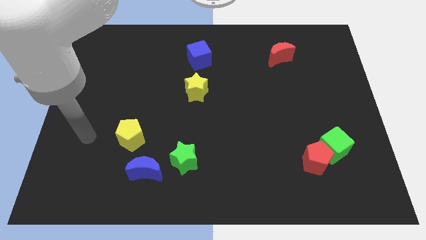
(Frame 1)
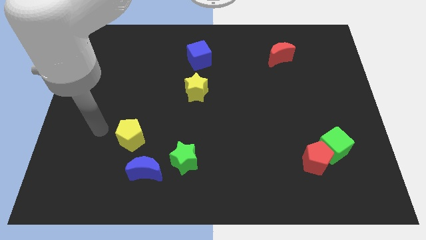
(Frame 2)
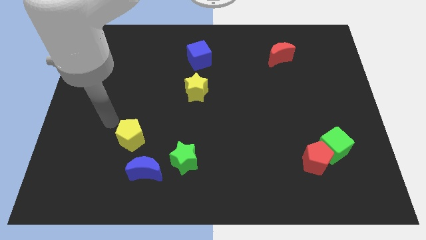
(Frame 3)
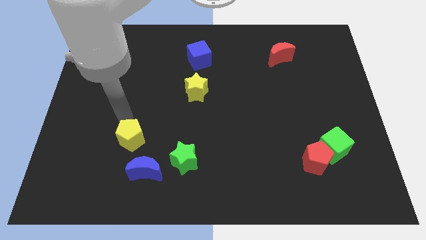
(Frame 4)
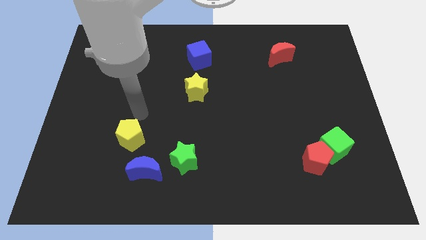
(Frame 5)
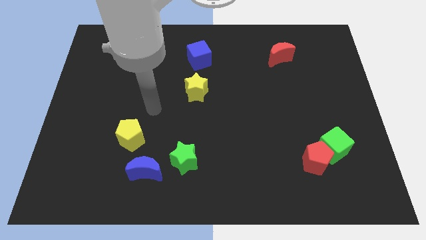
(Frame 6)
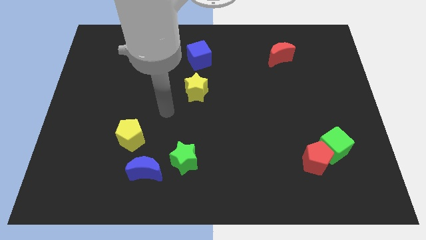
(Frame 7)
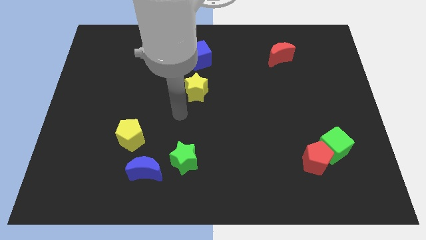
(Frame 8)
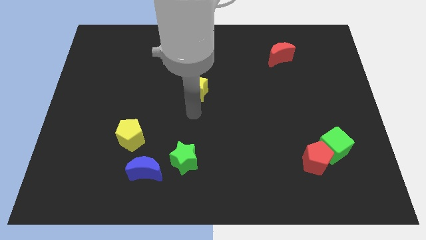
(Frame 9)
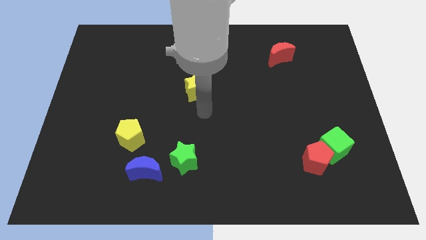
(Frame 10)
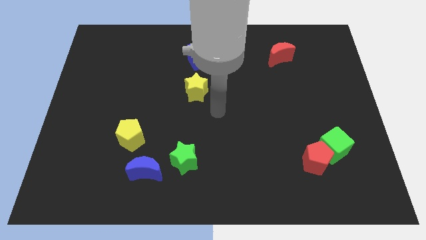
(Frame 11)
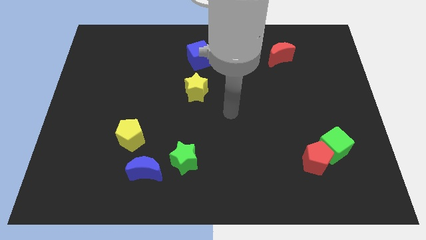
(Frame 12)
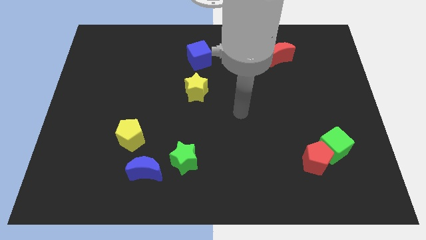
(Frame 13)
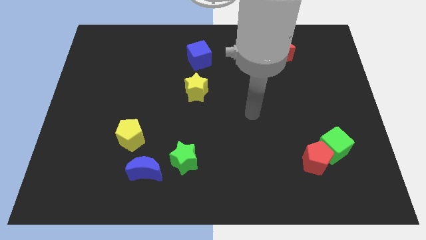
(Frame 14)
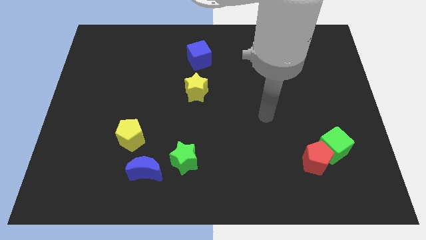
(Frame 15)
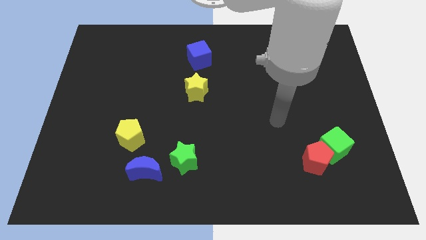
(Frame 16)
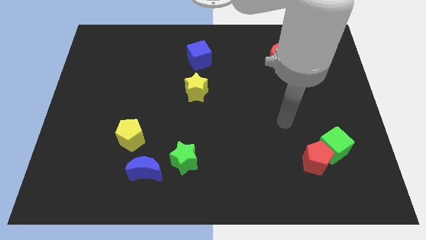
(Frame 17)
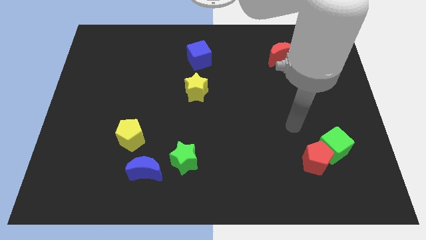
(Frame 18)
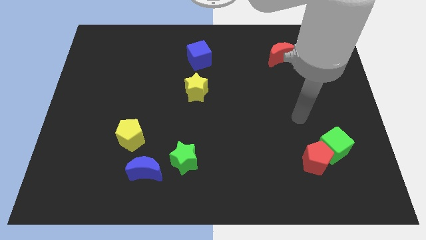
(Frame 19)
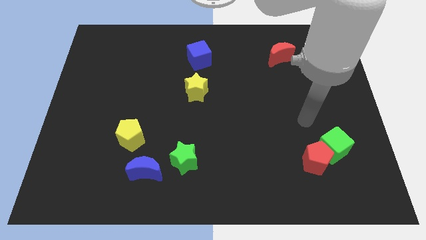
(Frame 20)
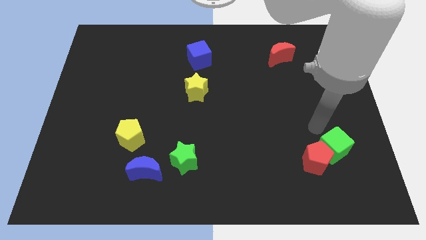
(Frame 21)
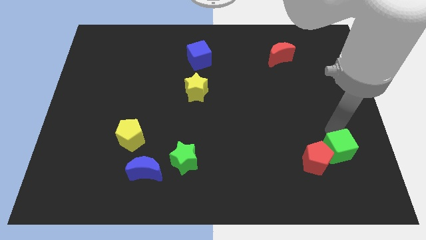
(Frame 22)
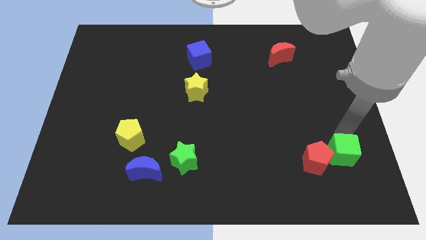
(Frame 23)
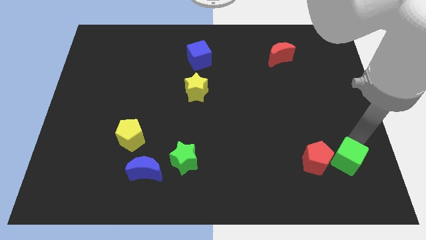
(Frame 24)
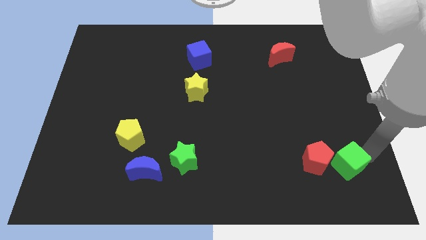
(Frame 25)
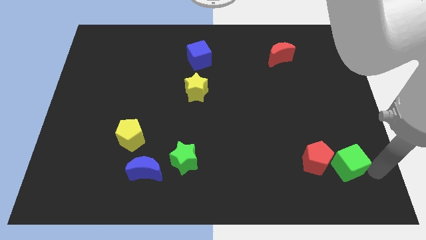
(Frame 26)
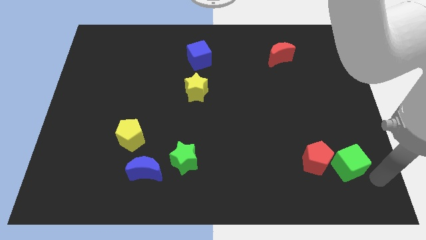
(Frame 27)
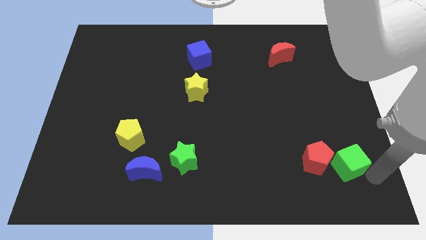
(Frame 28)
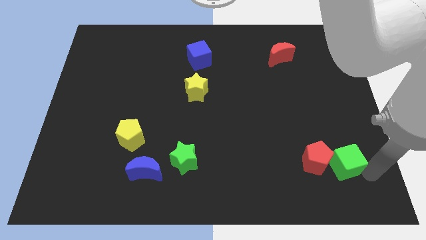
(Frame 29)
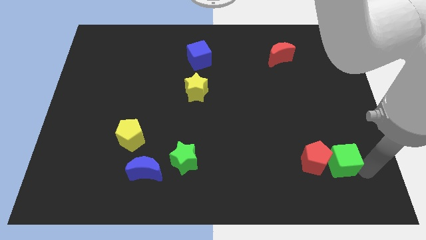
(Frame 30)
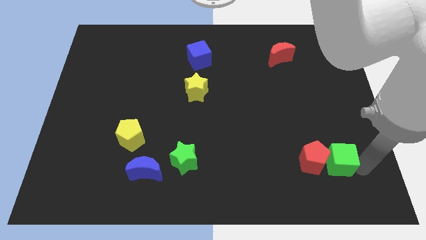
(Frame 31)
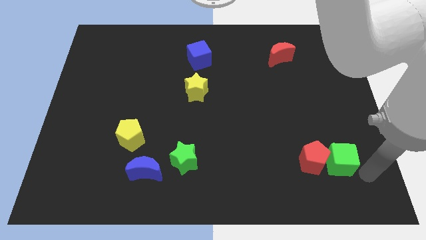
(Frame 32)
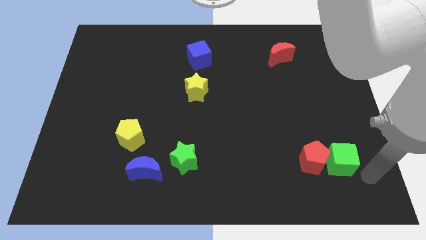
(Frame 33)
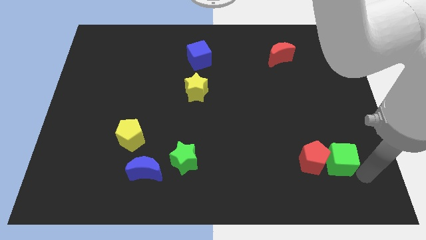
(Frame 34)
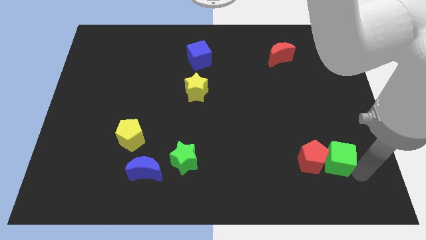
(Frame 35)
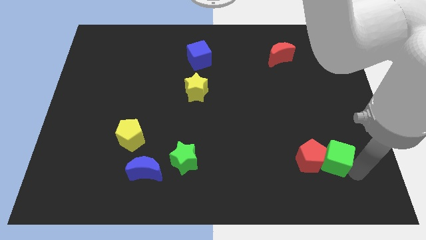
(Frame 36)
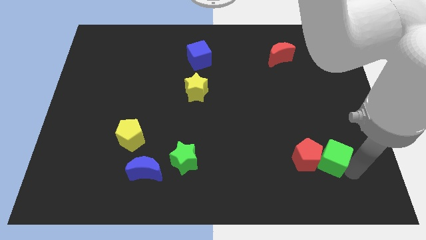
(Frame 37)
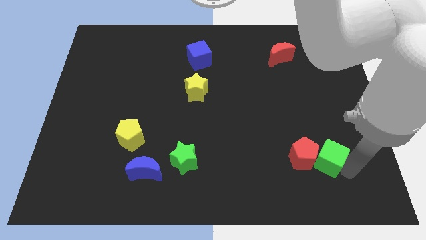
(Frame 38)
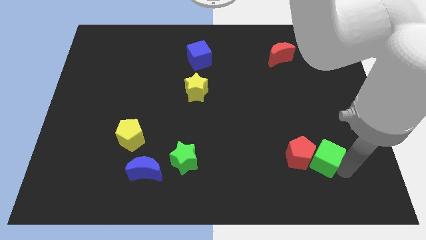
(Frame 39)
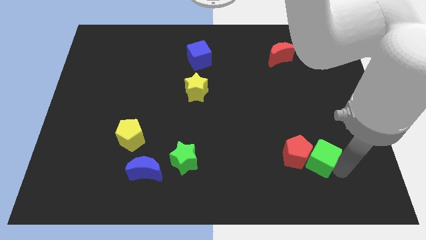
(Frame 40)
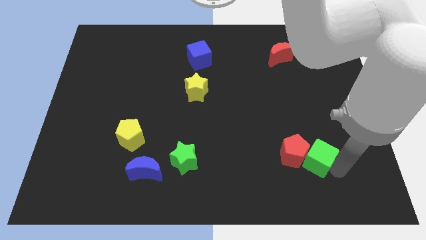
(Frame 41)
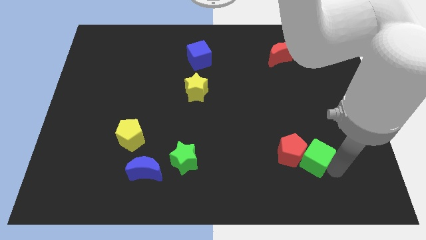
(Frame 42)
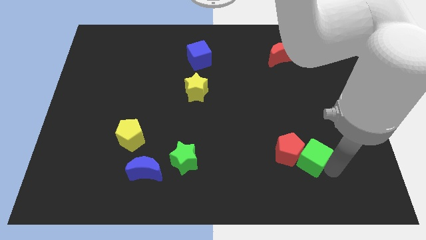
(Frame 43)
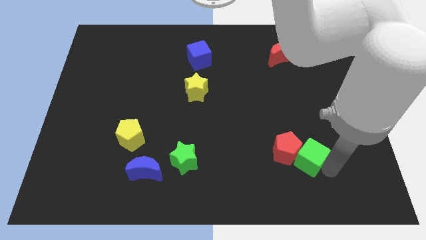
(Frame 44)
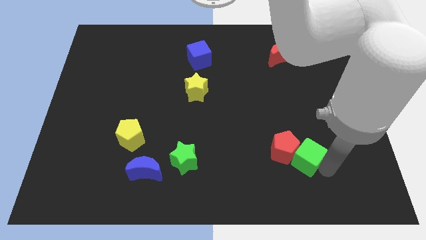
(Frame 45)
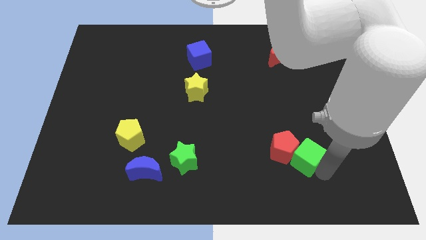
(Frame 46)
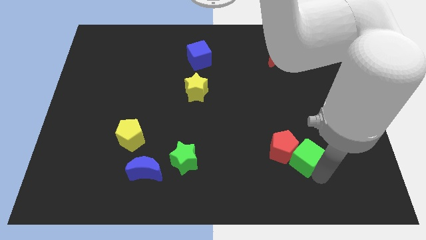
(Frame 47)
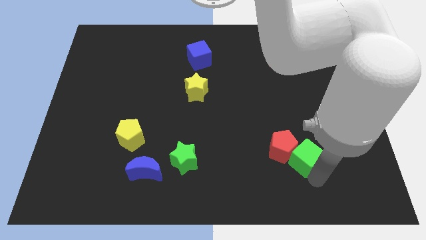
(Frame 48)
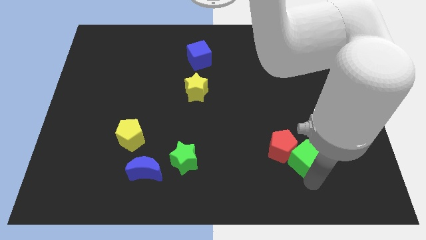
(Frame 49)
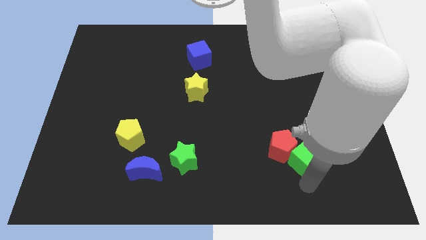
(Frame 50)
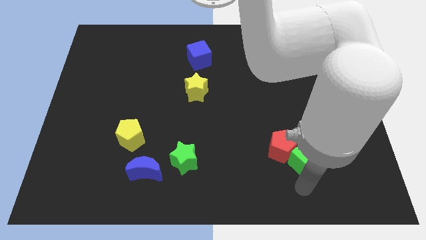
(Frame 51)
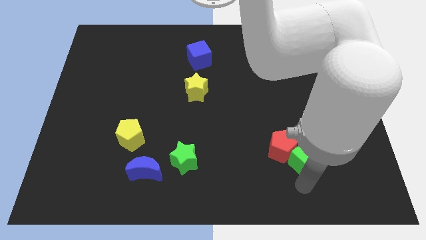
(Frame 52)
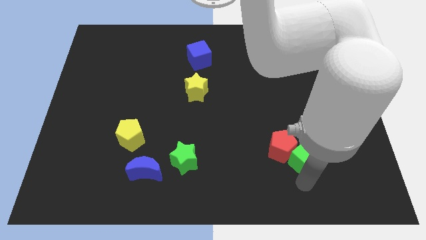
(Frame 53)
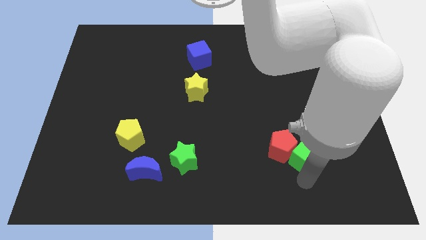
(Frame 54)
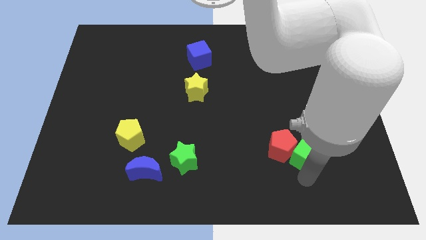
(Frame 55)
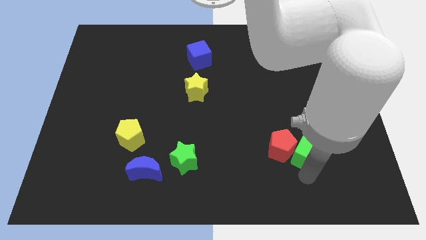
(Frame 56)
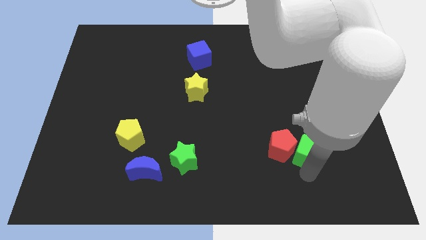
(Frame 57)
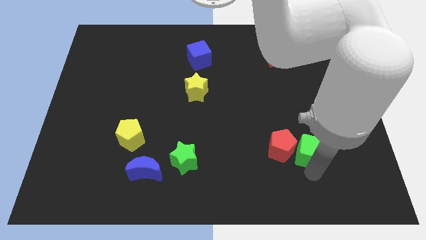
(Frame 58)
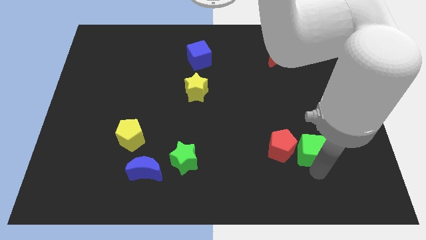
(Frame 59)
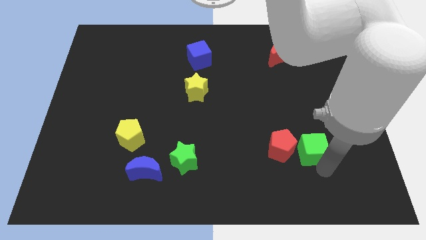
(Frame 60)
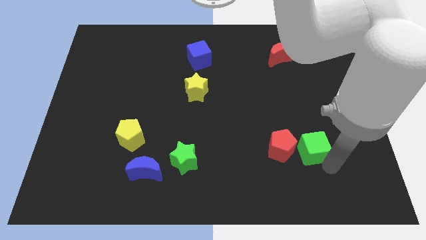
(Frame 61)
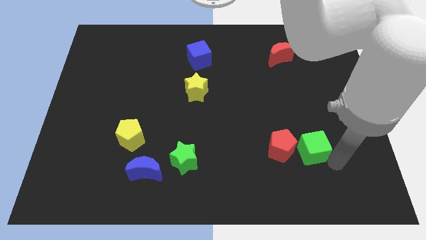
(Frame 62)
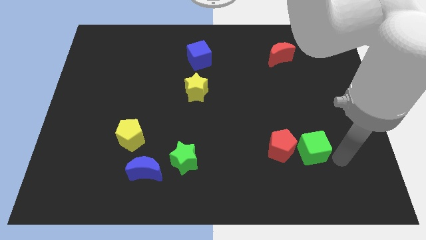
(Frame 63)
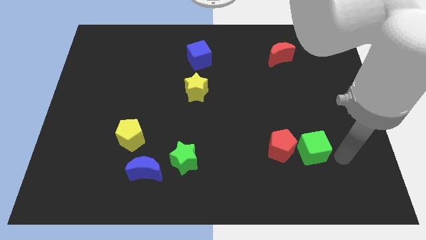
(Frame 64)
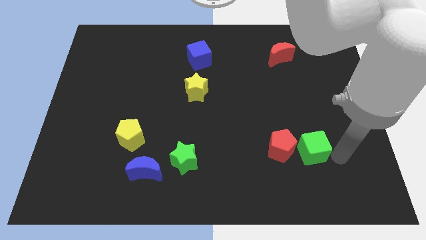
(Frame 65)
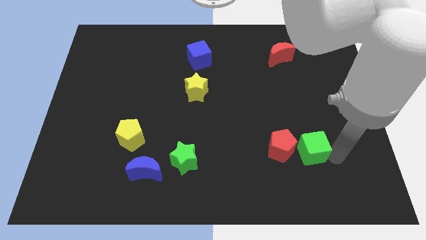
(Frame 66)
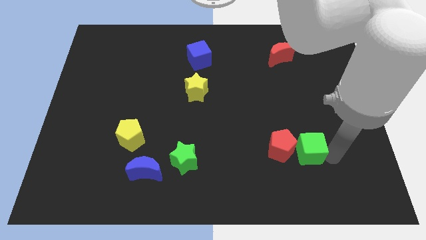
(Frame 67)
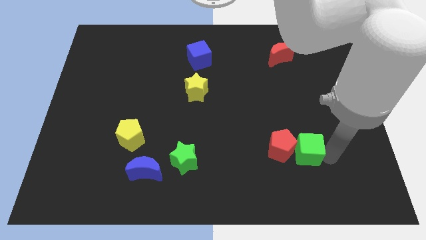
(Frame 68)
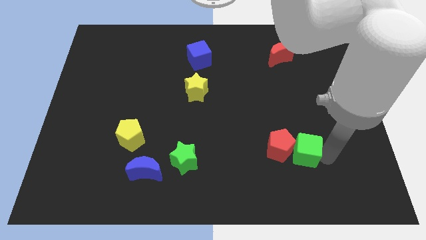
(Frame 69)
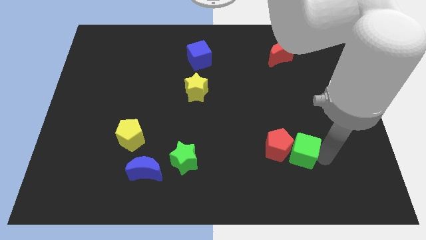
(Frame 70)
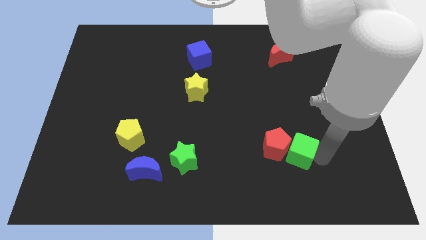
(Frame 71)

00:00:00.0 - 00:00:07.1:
slightly slide the green cube left

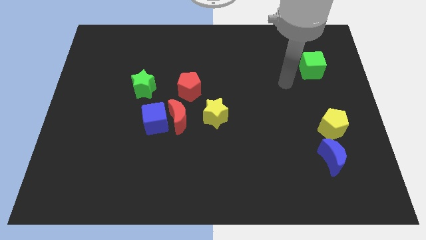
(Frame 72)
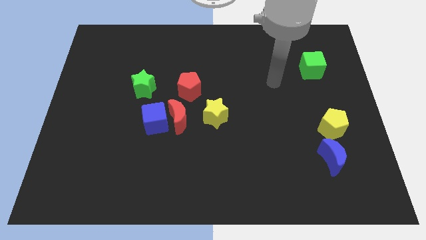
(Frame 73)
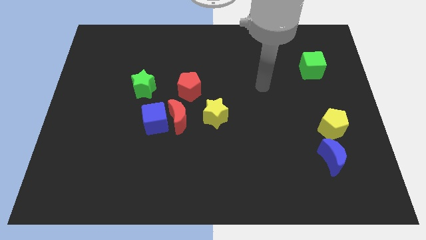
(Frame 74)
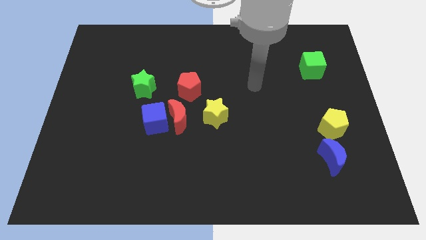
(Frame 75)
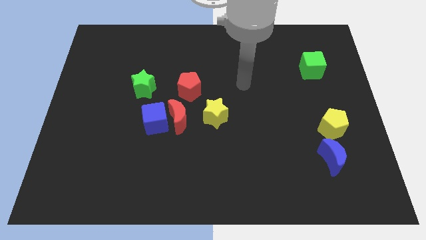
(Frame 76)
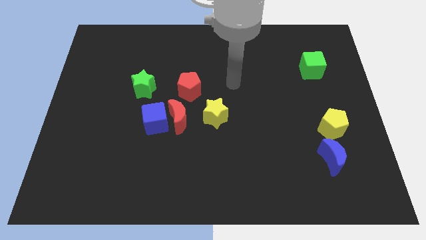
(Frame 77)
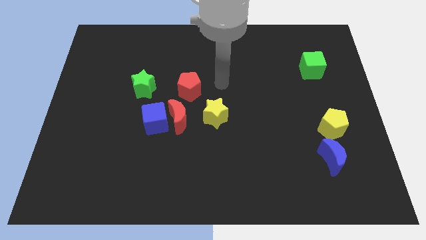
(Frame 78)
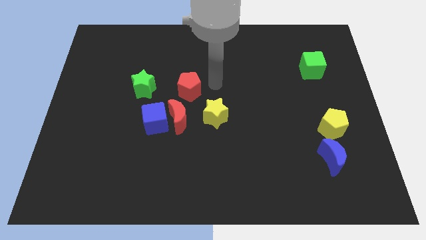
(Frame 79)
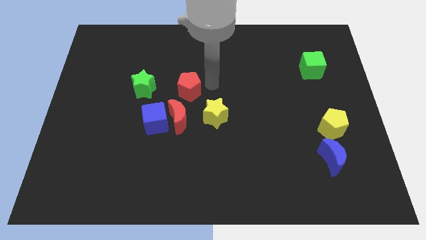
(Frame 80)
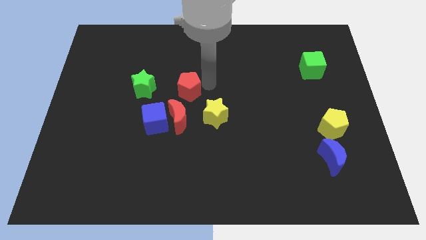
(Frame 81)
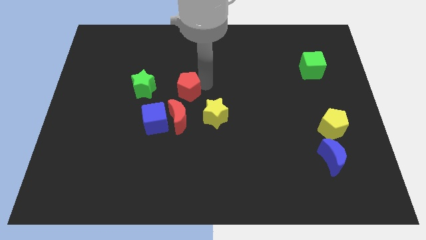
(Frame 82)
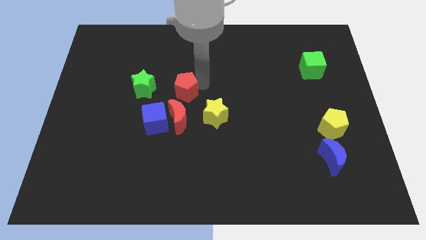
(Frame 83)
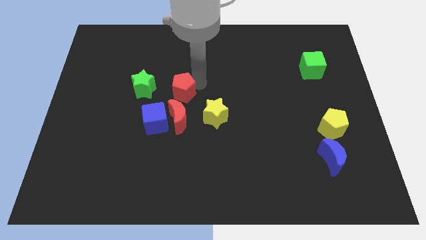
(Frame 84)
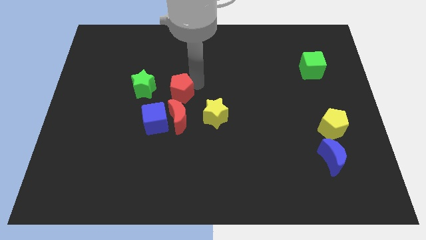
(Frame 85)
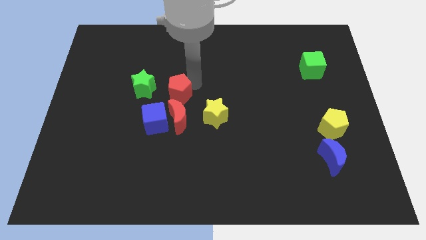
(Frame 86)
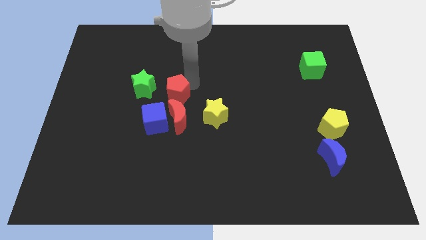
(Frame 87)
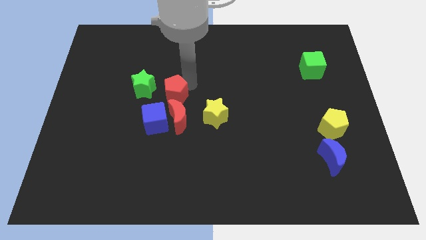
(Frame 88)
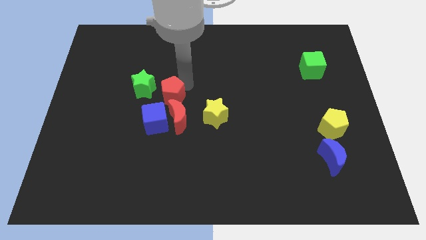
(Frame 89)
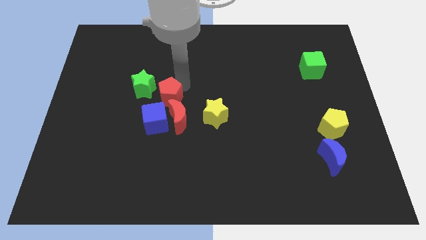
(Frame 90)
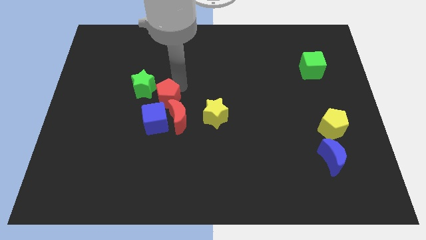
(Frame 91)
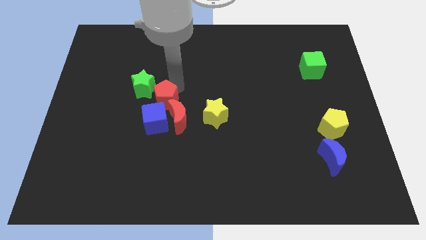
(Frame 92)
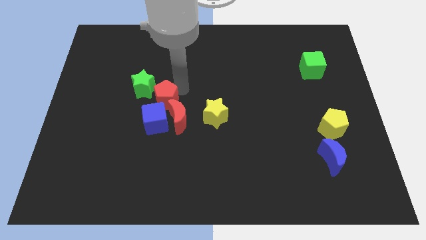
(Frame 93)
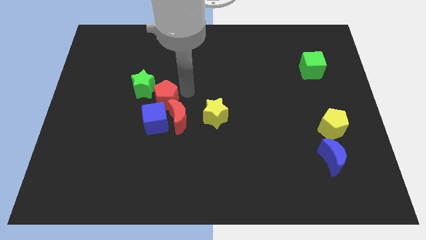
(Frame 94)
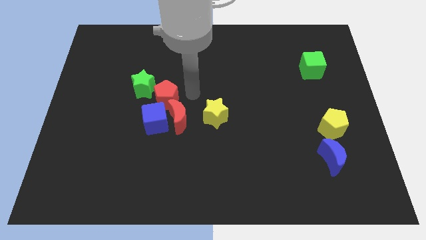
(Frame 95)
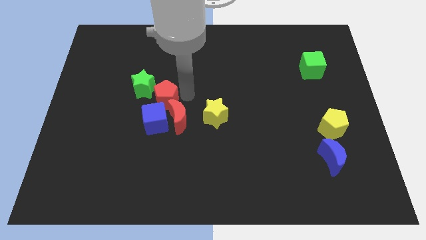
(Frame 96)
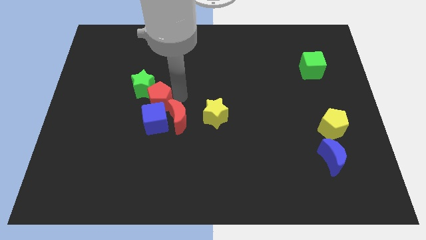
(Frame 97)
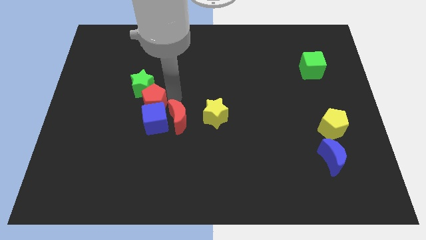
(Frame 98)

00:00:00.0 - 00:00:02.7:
slightly move the red pentagon to the left
